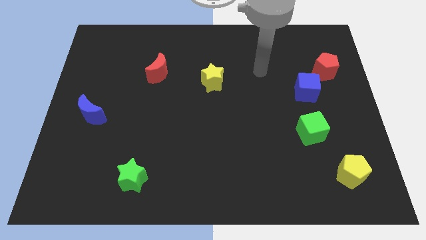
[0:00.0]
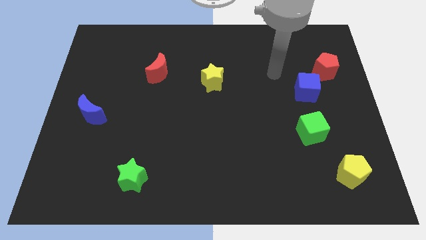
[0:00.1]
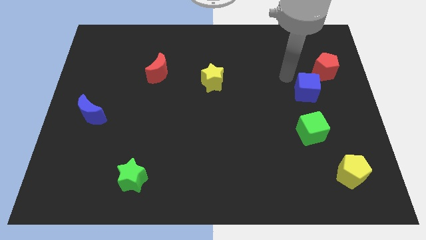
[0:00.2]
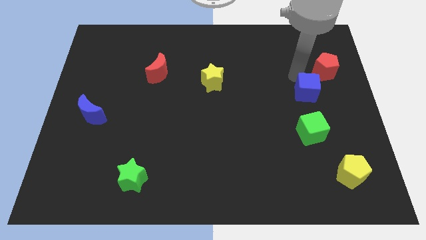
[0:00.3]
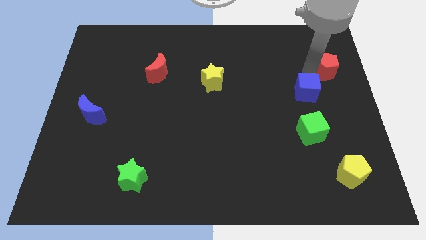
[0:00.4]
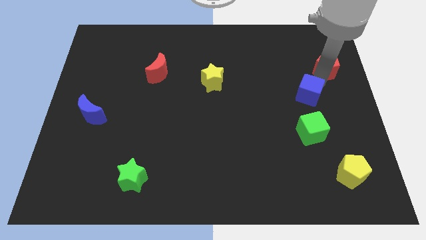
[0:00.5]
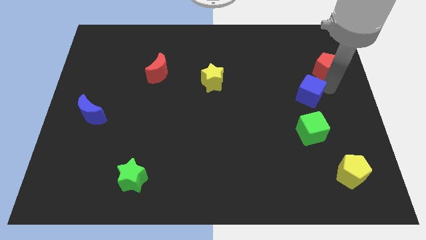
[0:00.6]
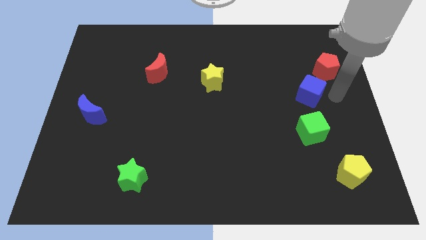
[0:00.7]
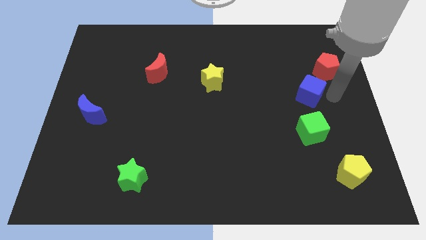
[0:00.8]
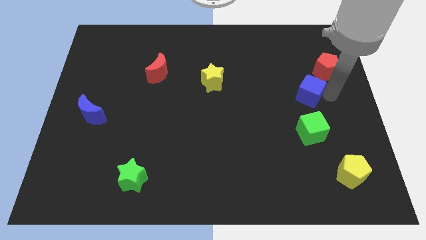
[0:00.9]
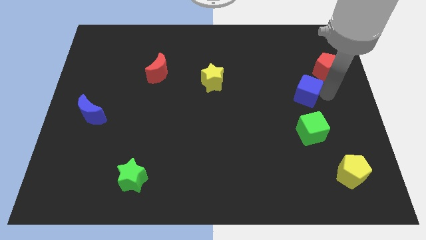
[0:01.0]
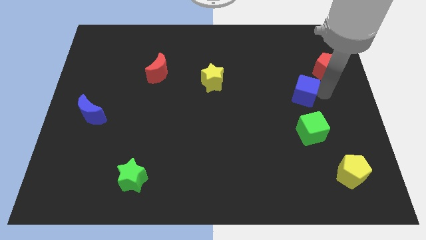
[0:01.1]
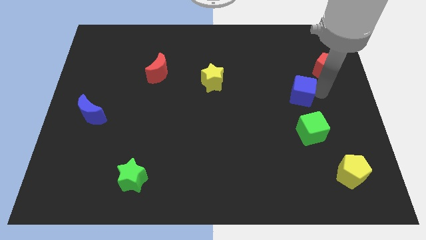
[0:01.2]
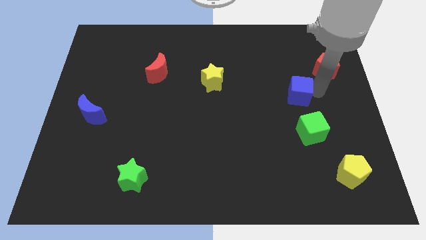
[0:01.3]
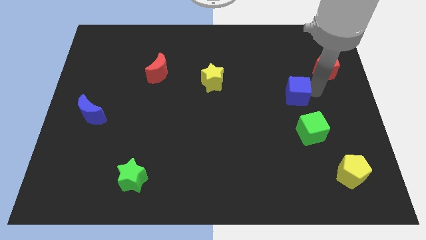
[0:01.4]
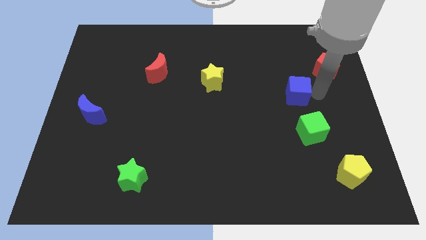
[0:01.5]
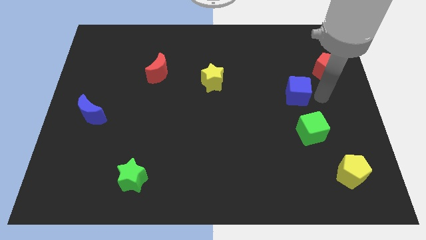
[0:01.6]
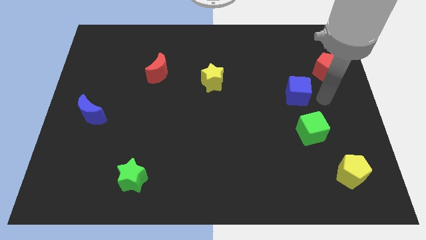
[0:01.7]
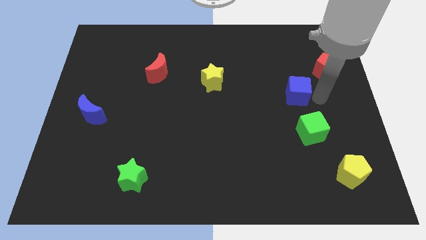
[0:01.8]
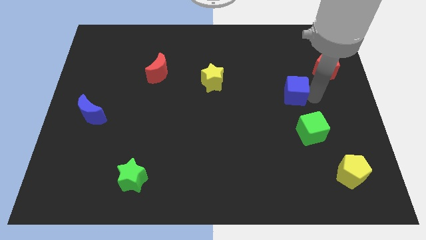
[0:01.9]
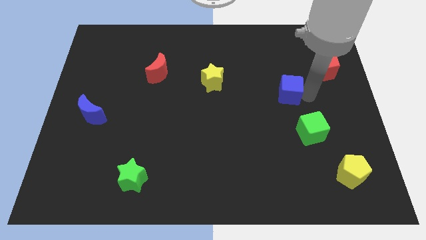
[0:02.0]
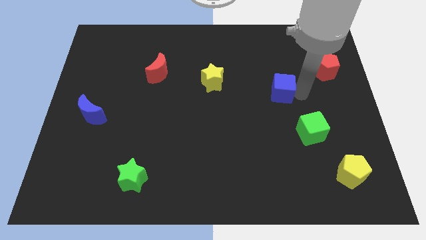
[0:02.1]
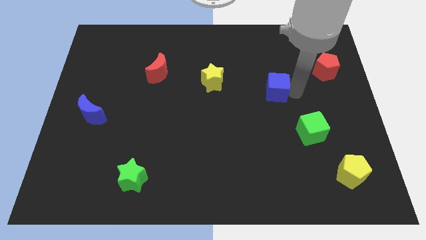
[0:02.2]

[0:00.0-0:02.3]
push the blue cube a little bit to the left

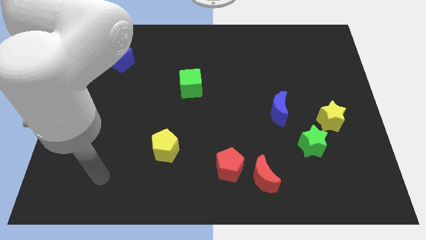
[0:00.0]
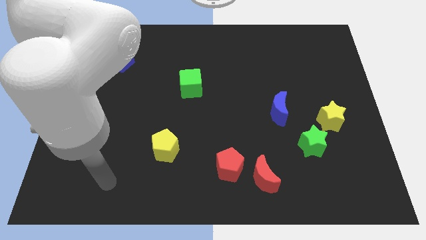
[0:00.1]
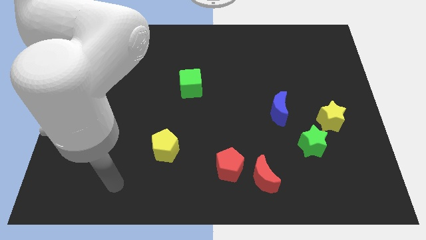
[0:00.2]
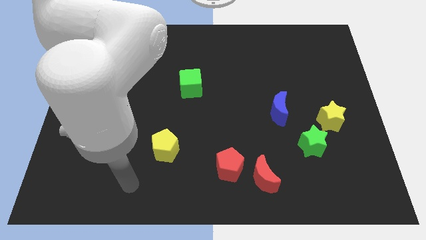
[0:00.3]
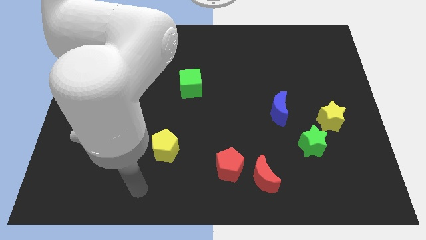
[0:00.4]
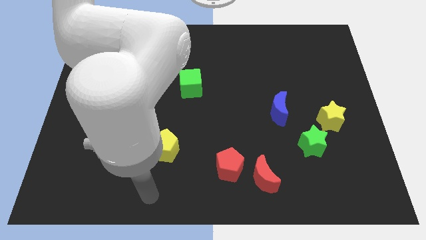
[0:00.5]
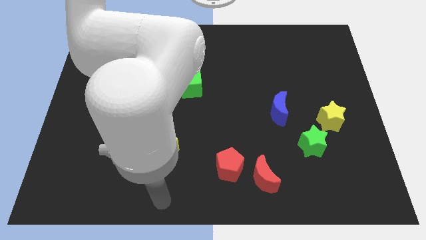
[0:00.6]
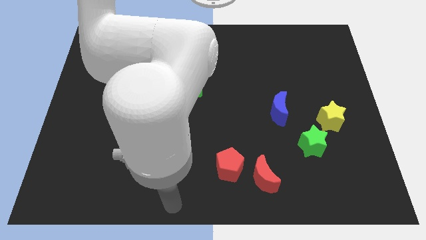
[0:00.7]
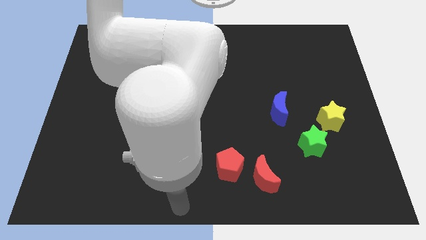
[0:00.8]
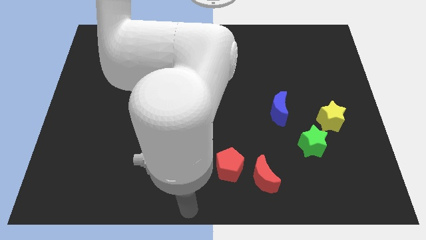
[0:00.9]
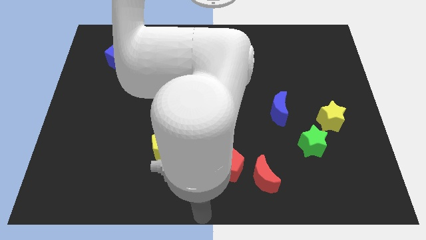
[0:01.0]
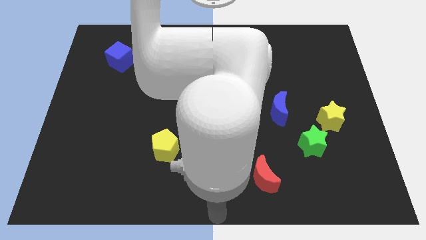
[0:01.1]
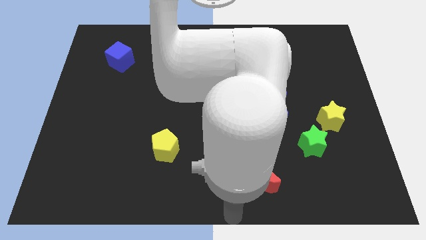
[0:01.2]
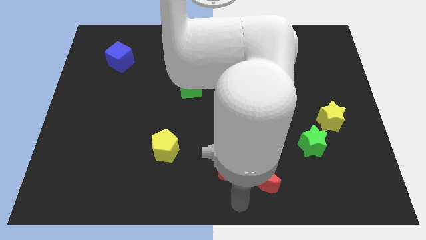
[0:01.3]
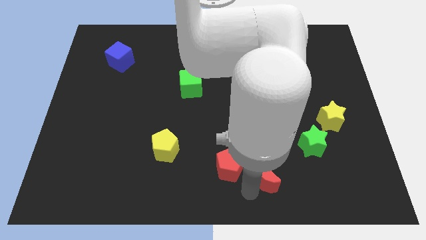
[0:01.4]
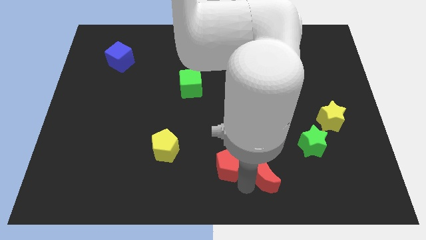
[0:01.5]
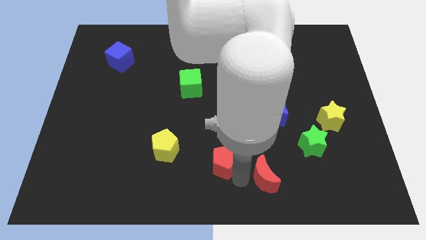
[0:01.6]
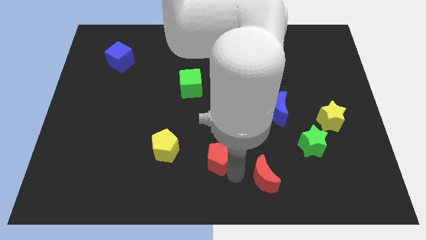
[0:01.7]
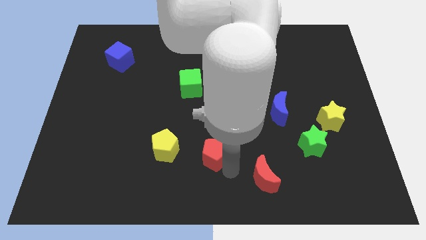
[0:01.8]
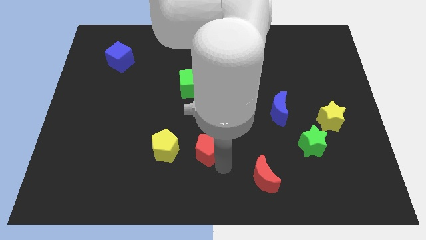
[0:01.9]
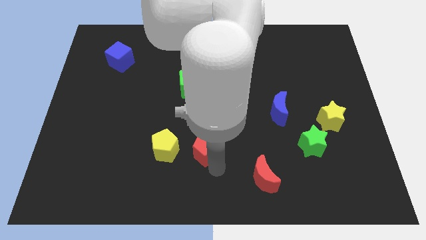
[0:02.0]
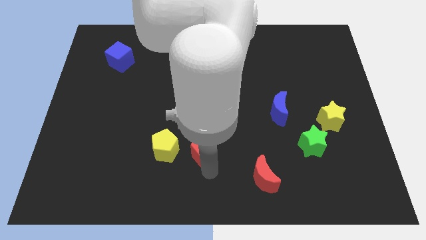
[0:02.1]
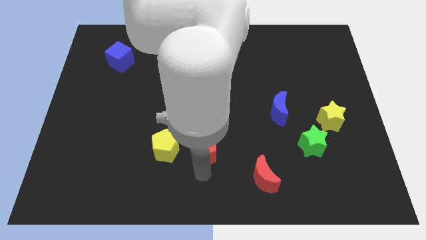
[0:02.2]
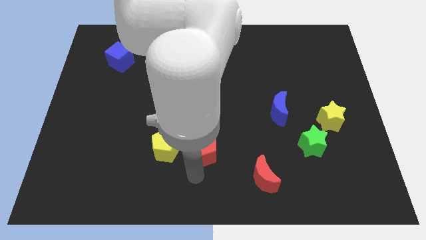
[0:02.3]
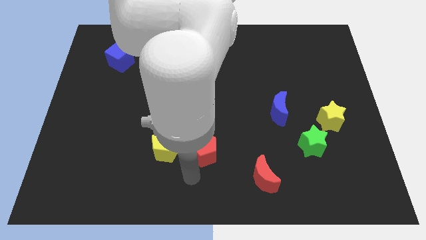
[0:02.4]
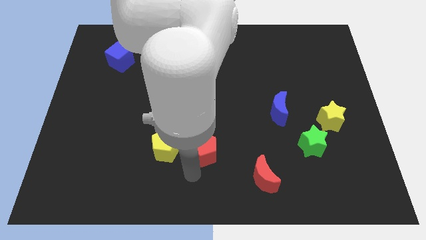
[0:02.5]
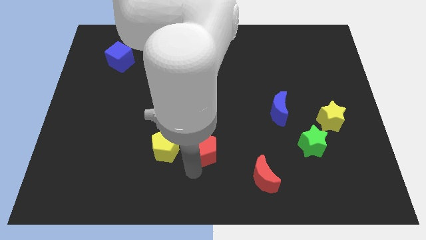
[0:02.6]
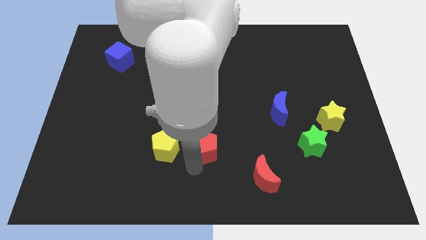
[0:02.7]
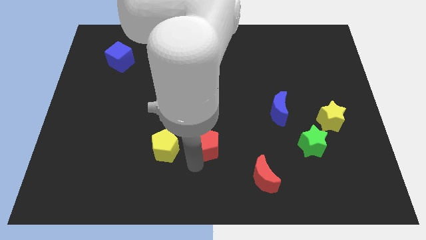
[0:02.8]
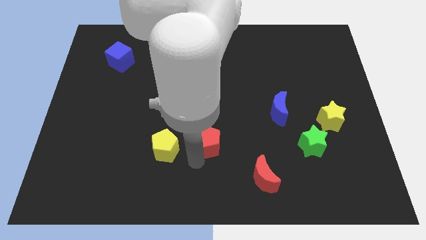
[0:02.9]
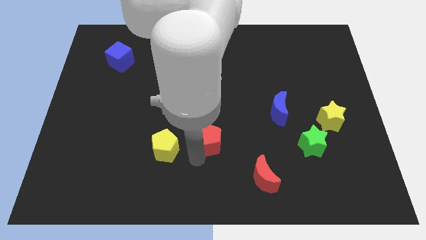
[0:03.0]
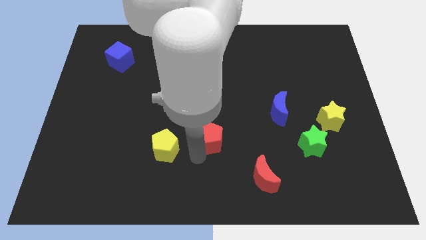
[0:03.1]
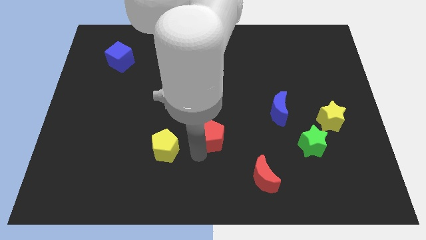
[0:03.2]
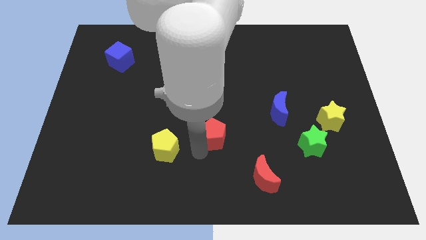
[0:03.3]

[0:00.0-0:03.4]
slightly slide the red pentagon upwards

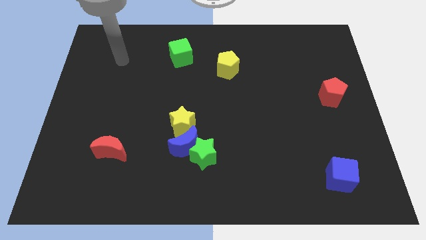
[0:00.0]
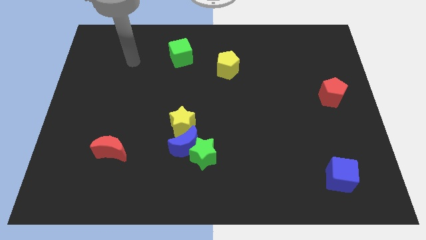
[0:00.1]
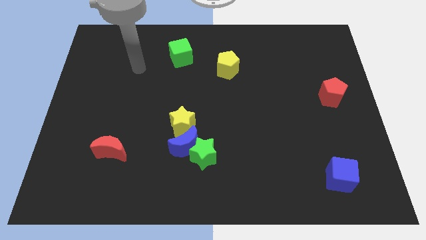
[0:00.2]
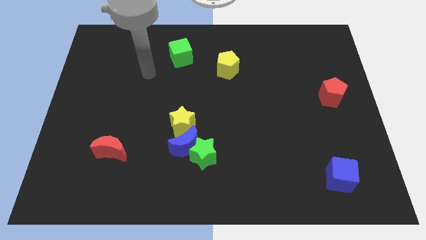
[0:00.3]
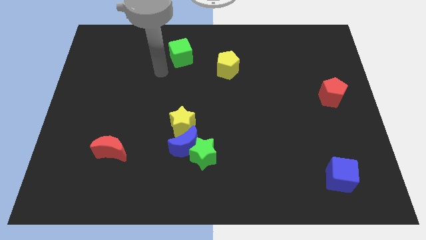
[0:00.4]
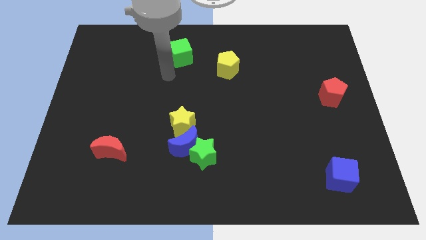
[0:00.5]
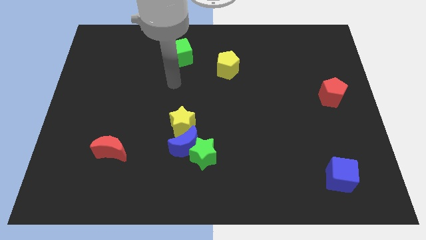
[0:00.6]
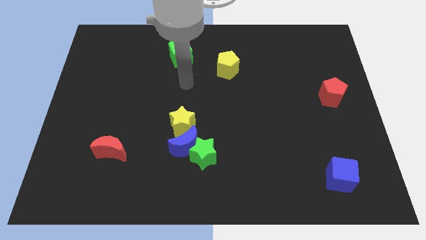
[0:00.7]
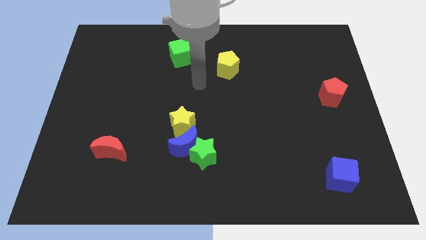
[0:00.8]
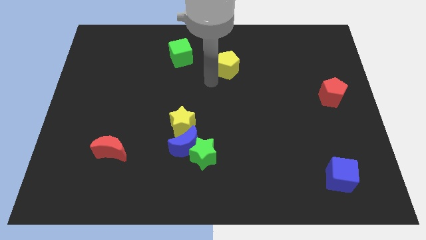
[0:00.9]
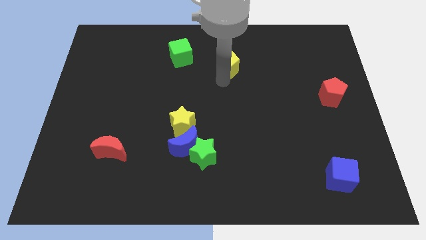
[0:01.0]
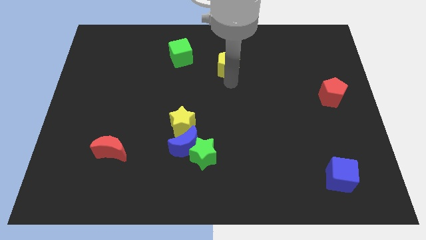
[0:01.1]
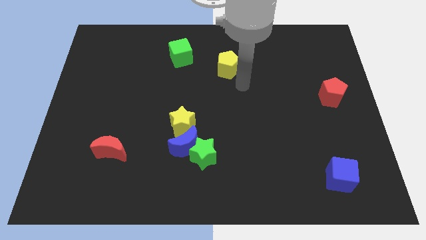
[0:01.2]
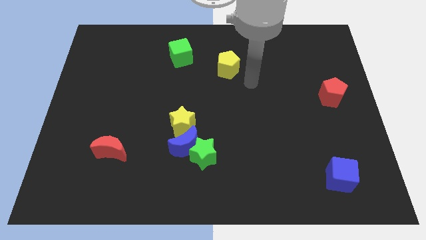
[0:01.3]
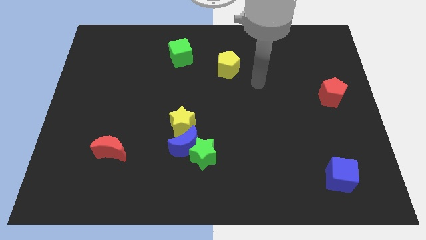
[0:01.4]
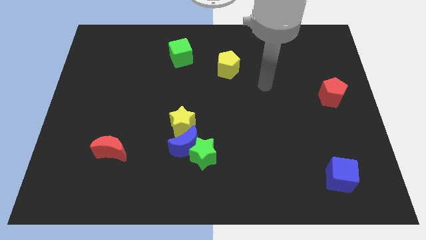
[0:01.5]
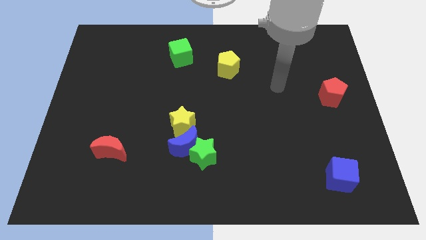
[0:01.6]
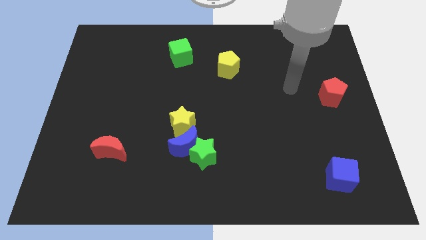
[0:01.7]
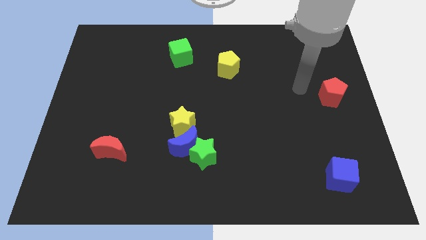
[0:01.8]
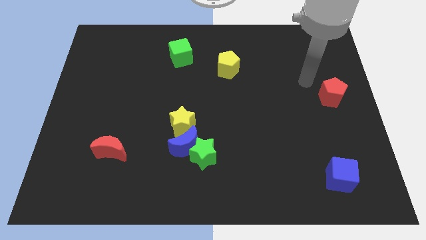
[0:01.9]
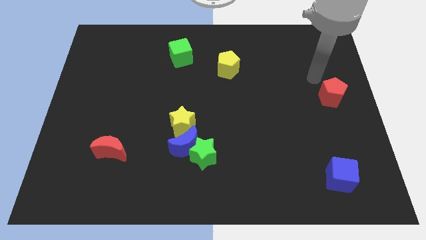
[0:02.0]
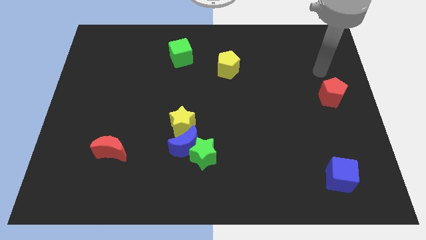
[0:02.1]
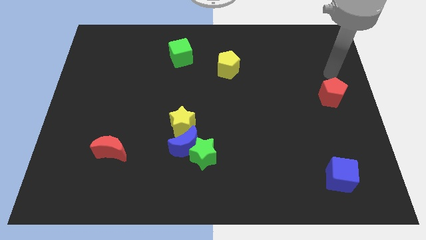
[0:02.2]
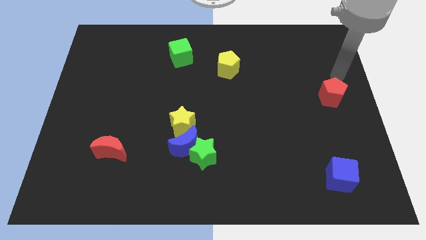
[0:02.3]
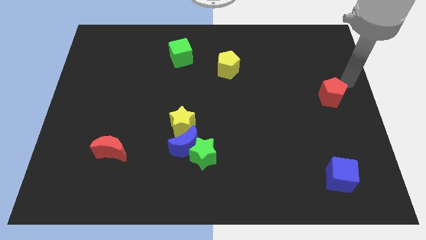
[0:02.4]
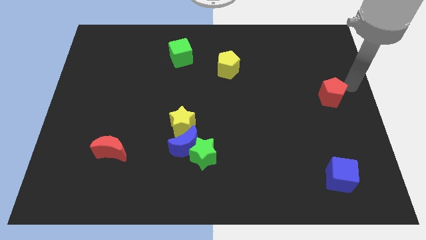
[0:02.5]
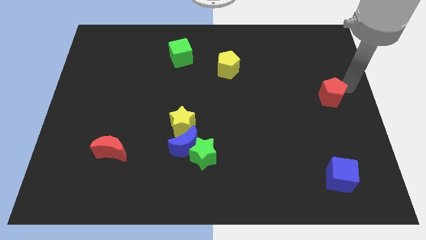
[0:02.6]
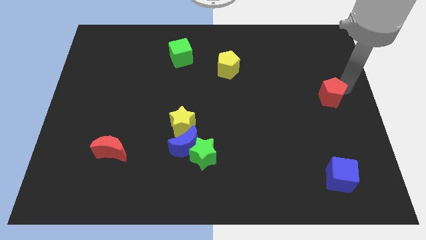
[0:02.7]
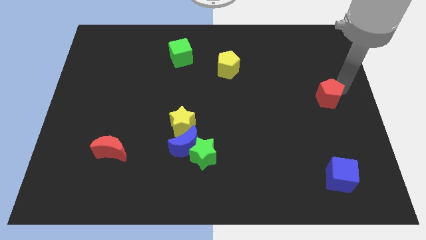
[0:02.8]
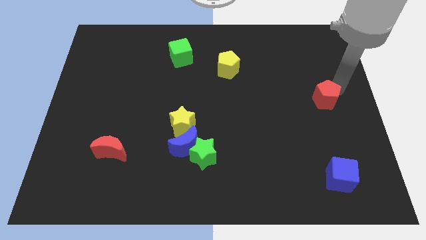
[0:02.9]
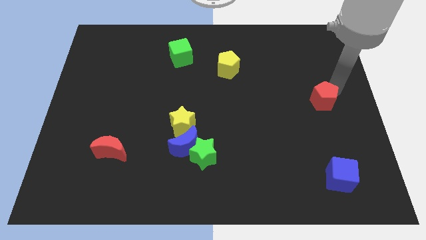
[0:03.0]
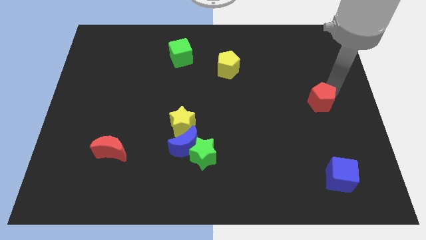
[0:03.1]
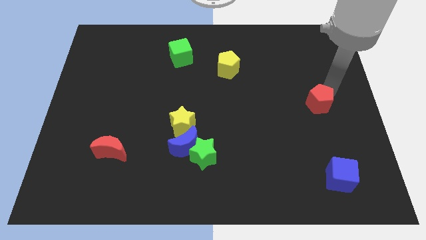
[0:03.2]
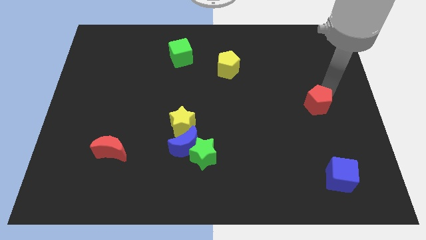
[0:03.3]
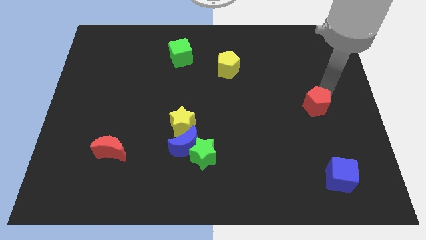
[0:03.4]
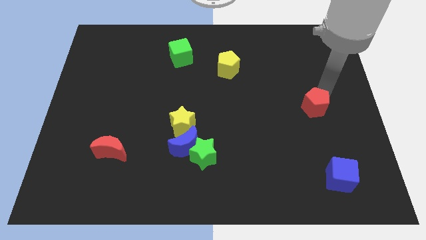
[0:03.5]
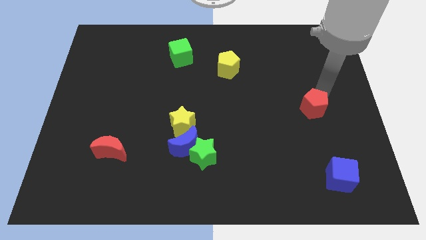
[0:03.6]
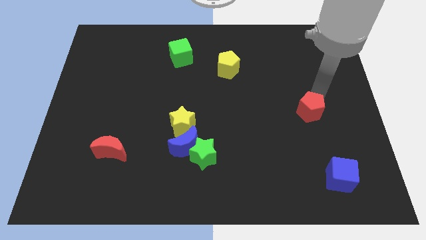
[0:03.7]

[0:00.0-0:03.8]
move the red pentagon down and to the left diagonally slightly
